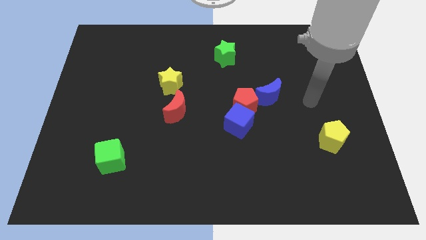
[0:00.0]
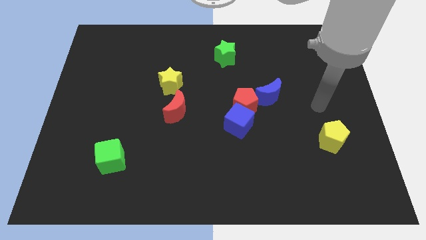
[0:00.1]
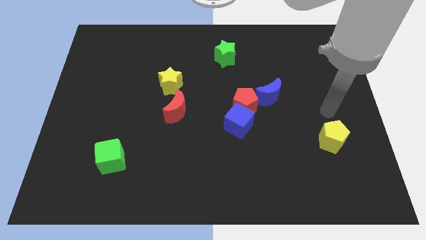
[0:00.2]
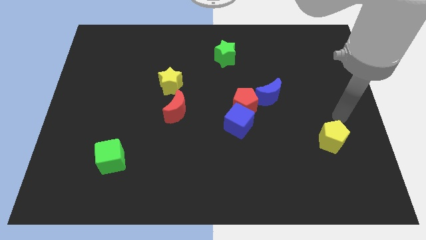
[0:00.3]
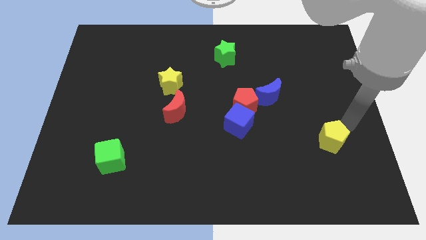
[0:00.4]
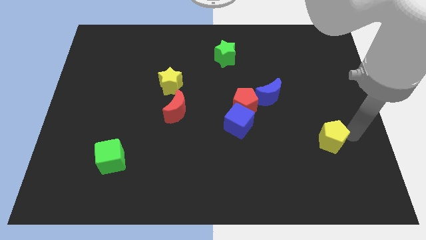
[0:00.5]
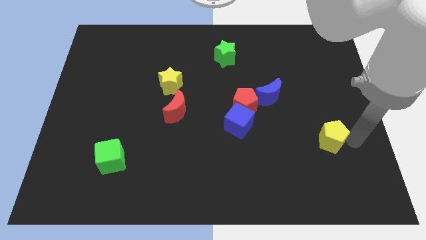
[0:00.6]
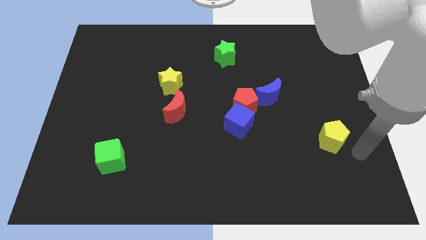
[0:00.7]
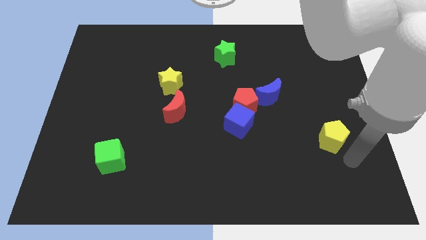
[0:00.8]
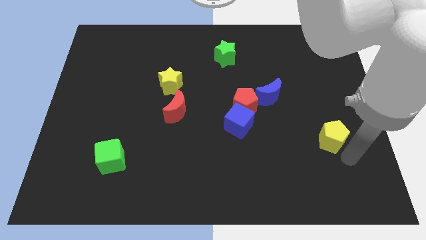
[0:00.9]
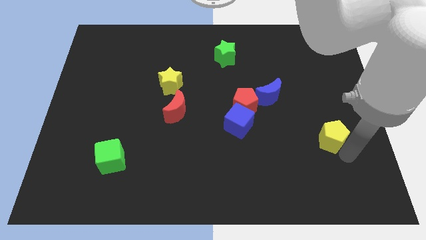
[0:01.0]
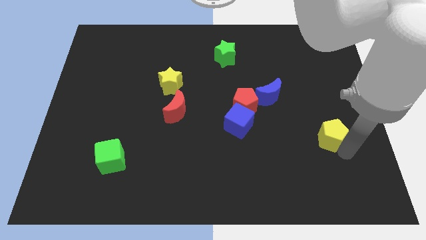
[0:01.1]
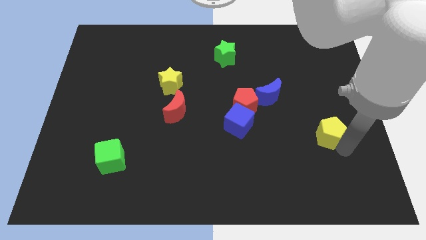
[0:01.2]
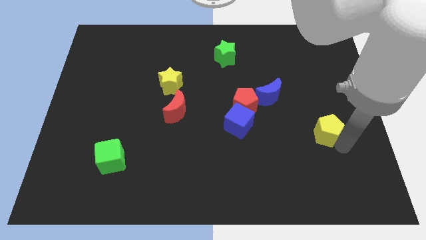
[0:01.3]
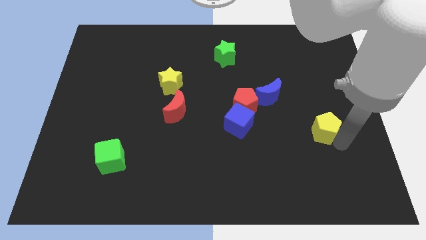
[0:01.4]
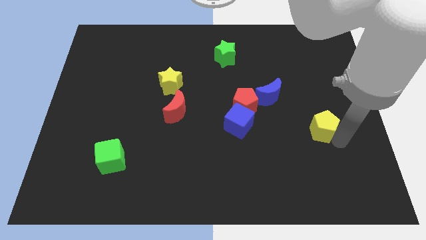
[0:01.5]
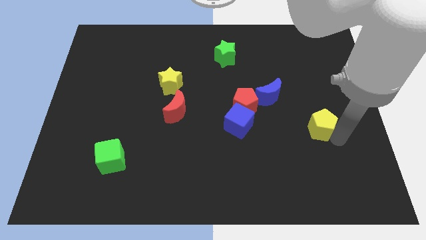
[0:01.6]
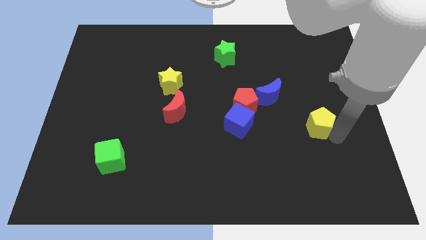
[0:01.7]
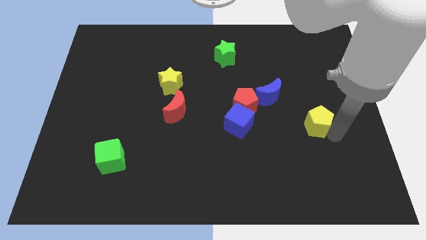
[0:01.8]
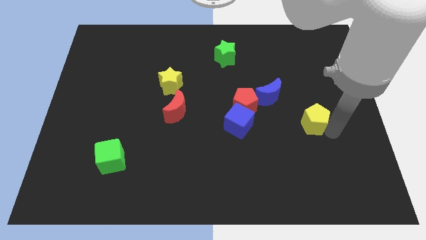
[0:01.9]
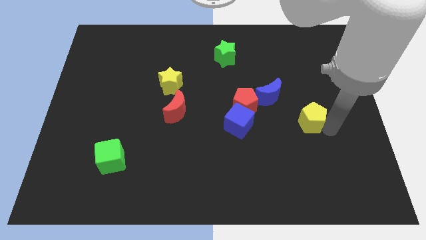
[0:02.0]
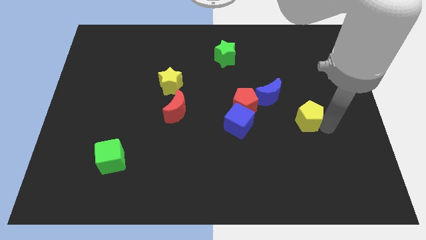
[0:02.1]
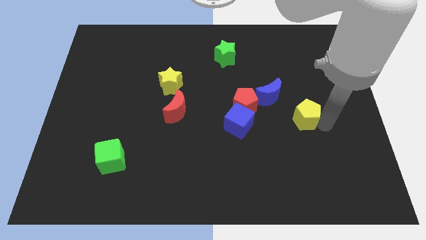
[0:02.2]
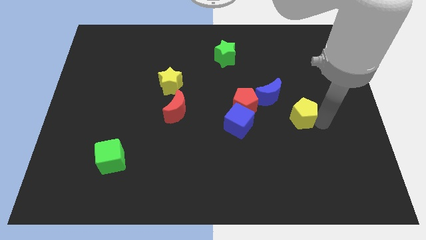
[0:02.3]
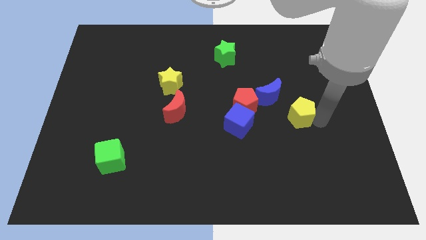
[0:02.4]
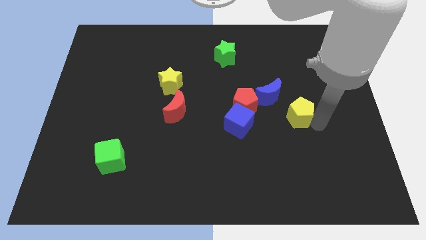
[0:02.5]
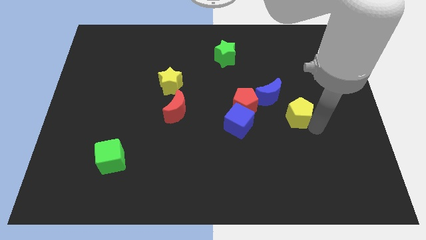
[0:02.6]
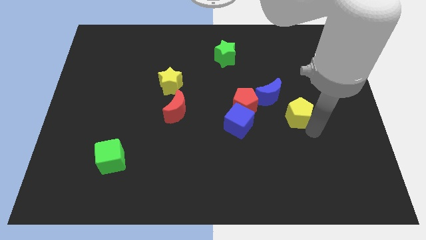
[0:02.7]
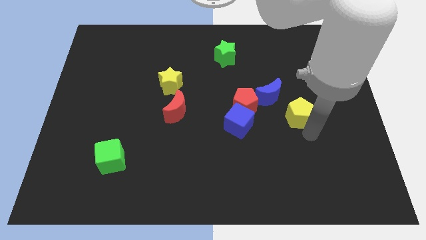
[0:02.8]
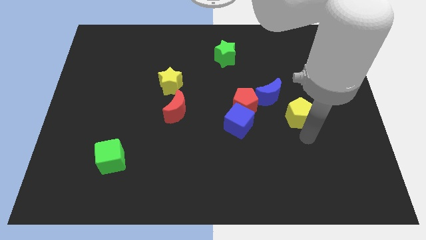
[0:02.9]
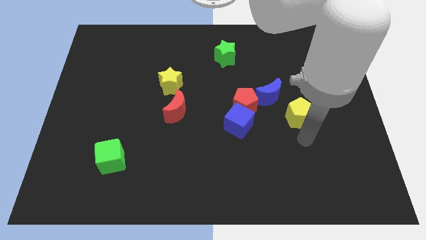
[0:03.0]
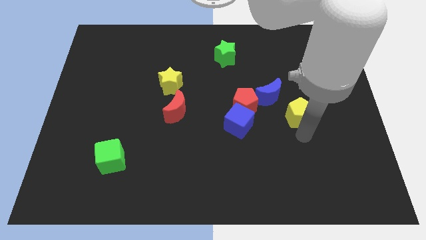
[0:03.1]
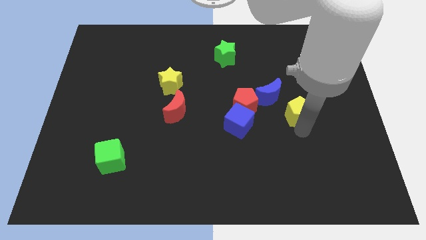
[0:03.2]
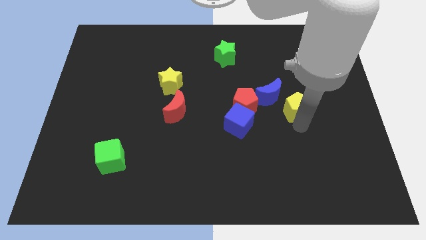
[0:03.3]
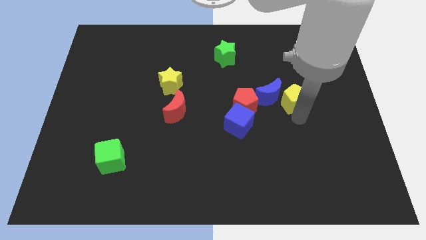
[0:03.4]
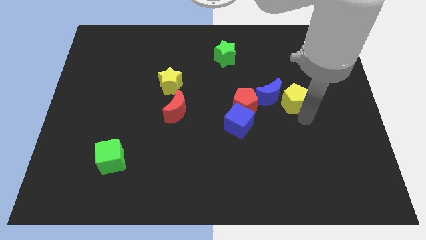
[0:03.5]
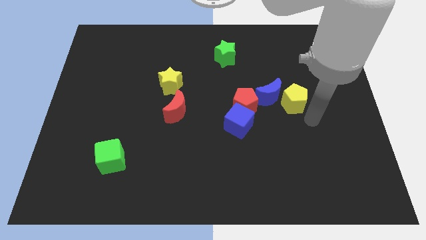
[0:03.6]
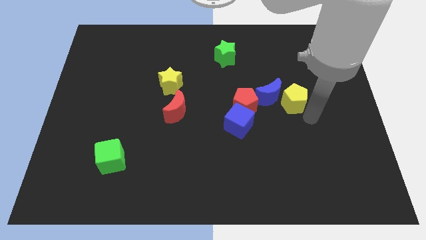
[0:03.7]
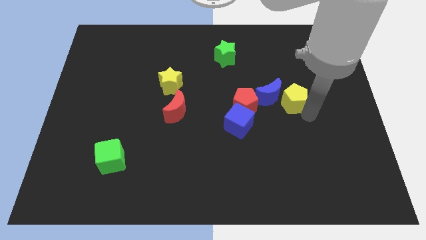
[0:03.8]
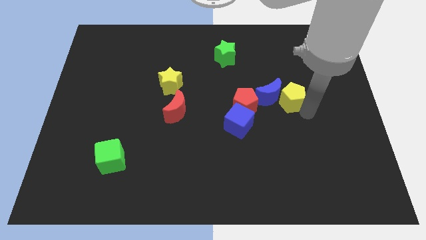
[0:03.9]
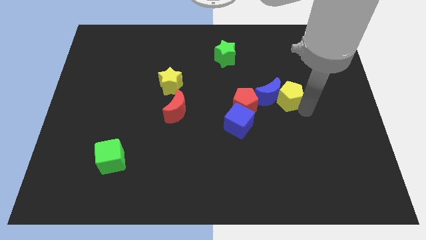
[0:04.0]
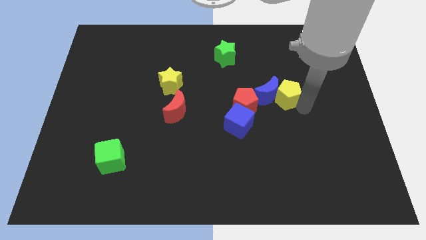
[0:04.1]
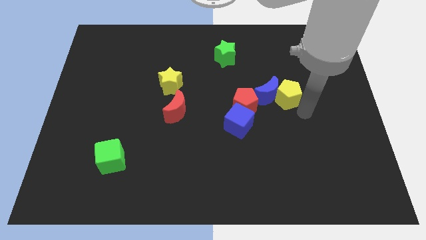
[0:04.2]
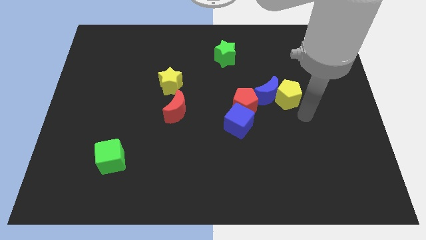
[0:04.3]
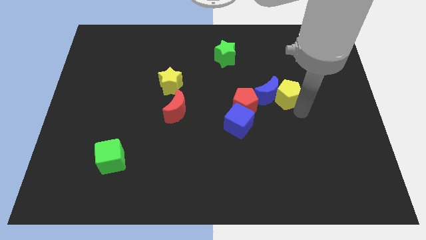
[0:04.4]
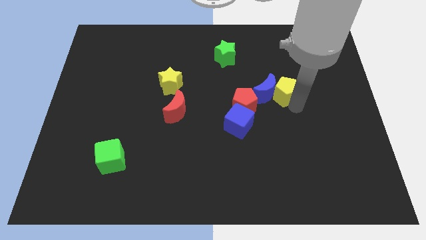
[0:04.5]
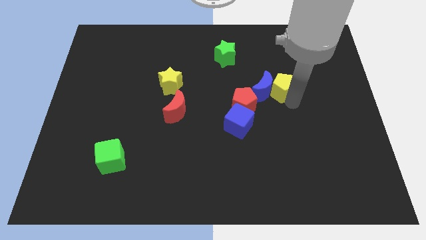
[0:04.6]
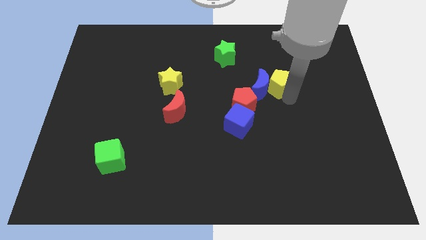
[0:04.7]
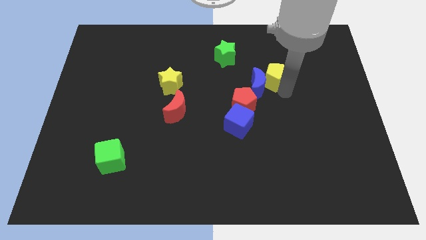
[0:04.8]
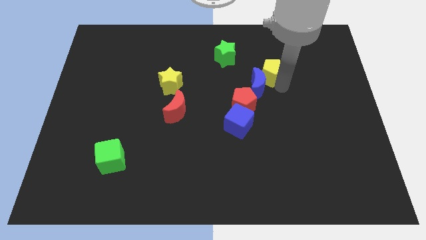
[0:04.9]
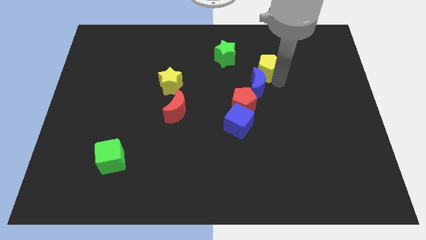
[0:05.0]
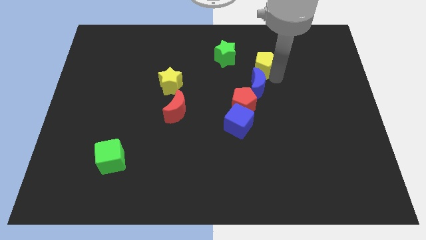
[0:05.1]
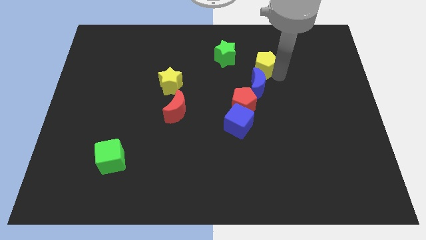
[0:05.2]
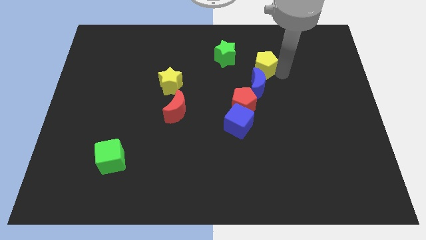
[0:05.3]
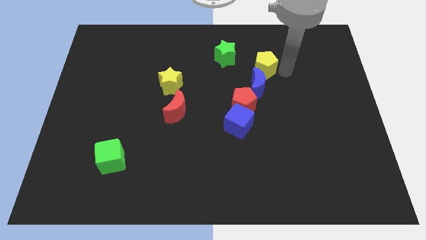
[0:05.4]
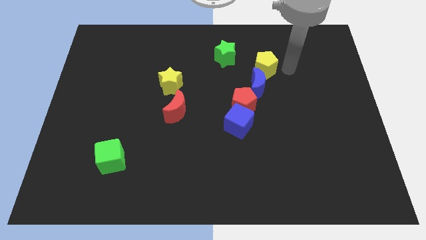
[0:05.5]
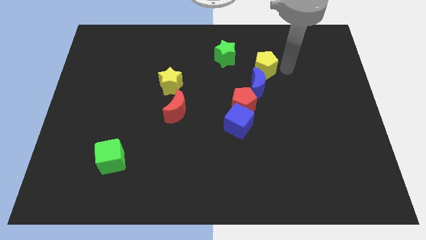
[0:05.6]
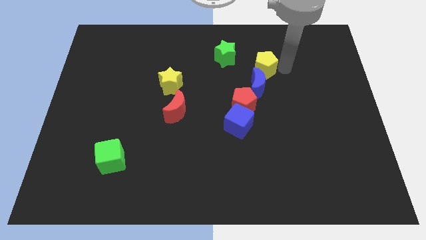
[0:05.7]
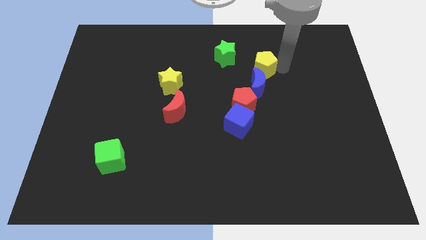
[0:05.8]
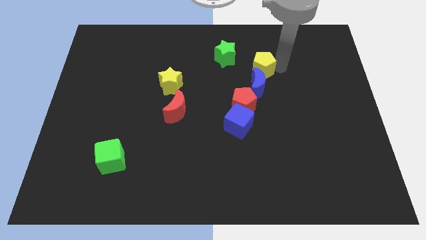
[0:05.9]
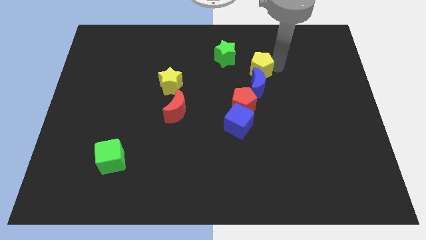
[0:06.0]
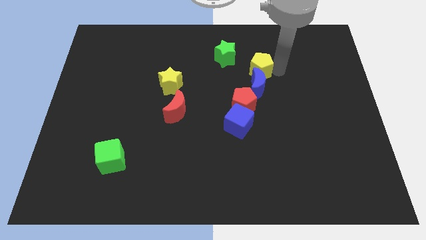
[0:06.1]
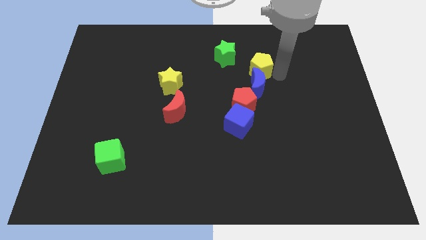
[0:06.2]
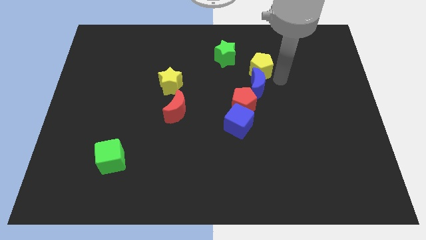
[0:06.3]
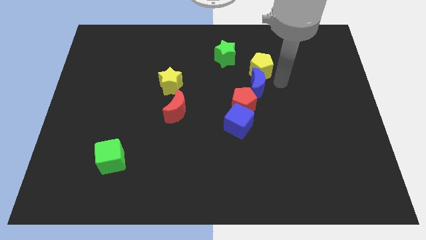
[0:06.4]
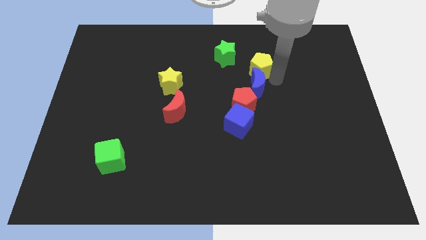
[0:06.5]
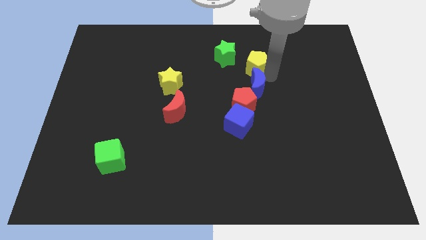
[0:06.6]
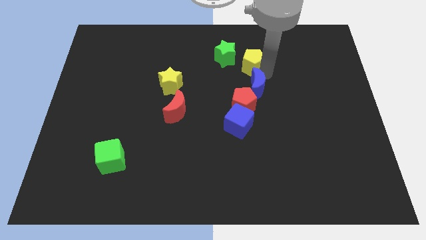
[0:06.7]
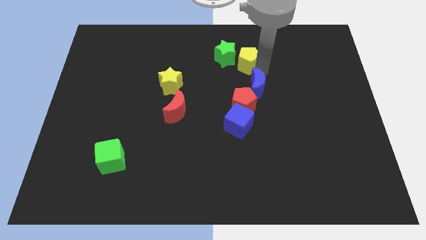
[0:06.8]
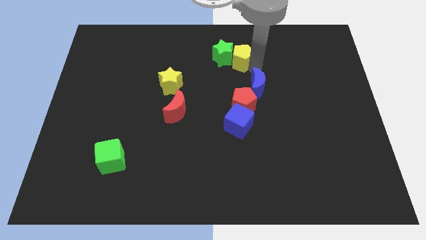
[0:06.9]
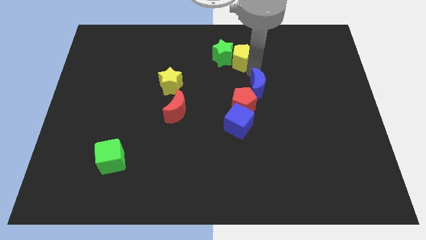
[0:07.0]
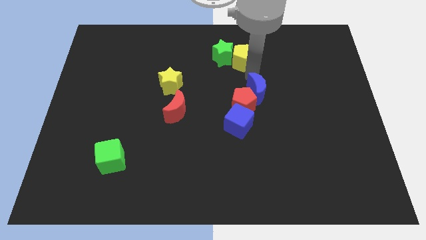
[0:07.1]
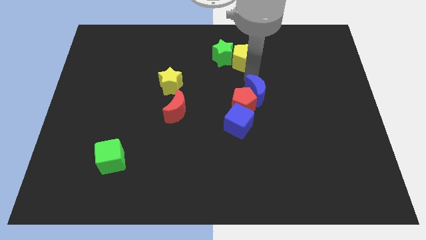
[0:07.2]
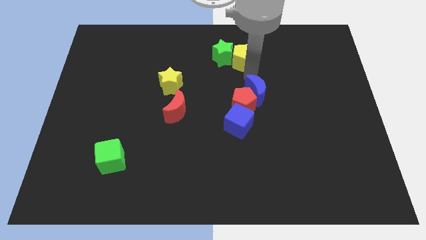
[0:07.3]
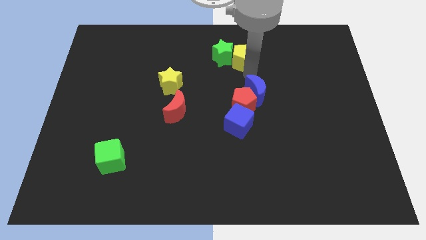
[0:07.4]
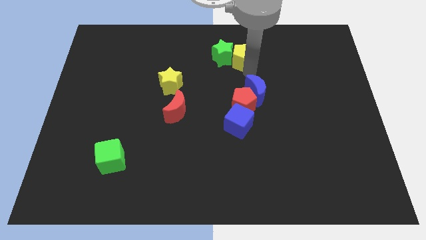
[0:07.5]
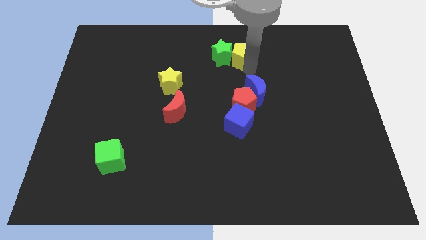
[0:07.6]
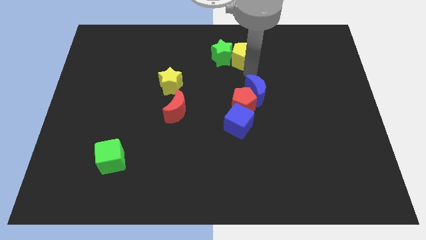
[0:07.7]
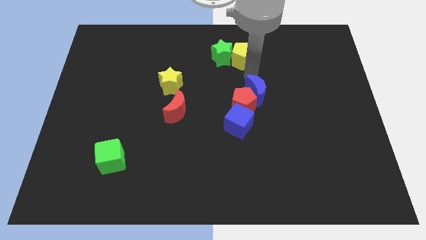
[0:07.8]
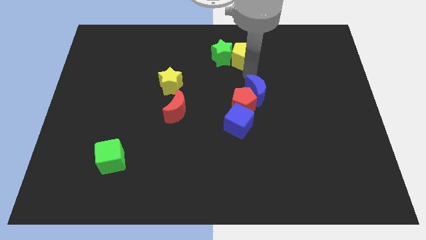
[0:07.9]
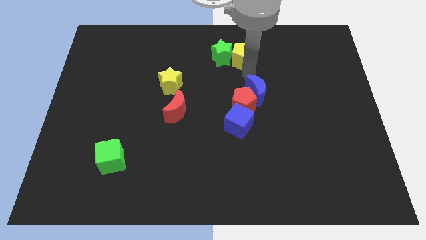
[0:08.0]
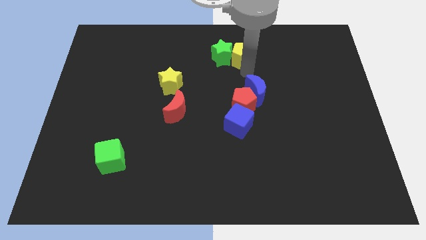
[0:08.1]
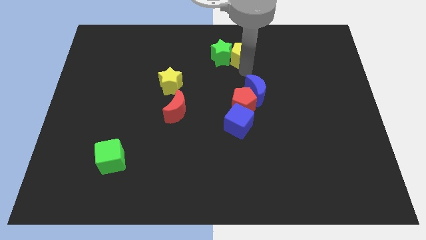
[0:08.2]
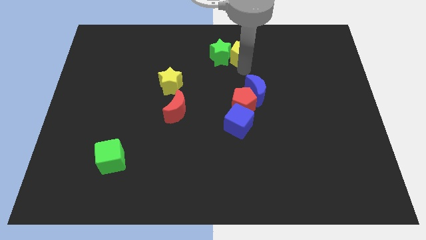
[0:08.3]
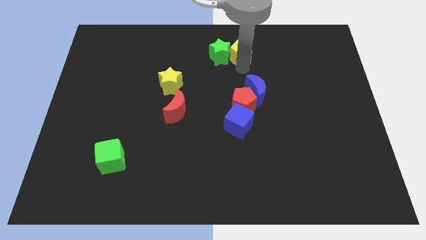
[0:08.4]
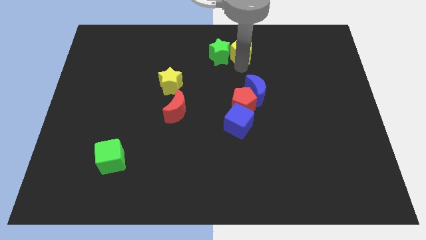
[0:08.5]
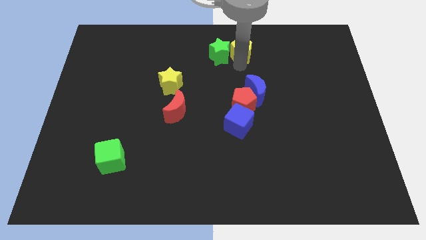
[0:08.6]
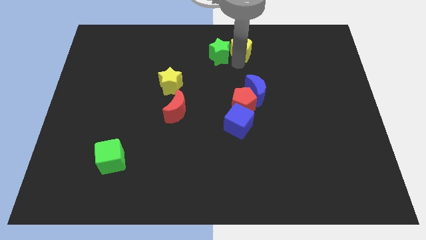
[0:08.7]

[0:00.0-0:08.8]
put the yellow pentagon to the top
